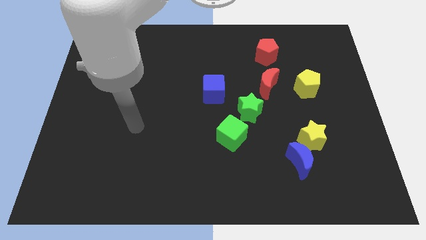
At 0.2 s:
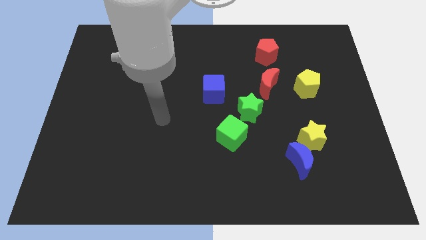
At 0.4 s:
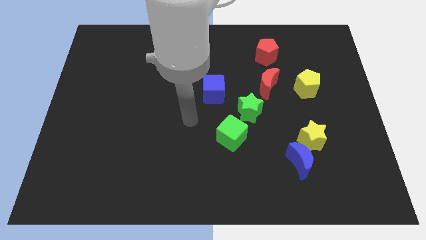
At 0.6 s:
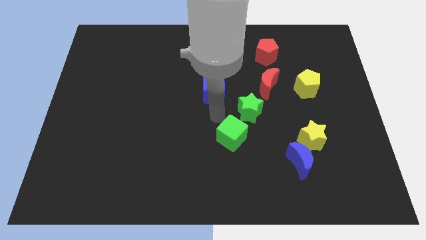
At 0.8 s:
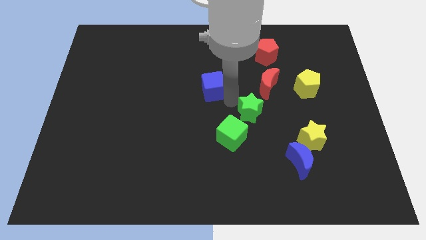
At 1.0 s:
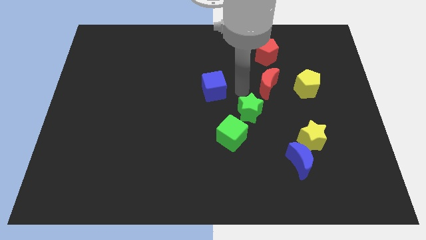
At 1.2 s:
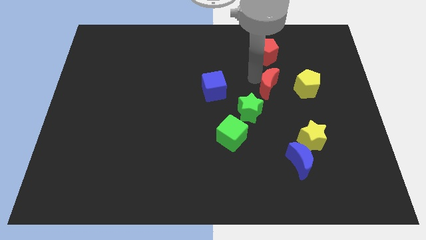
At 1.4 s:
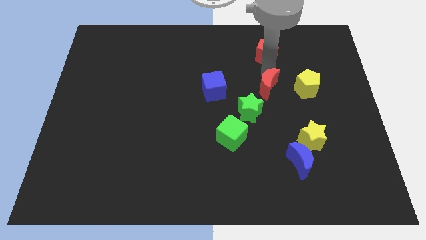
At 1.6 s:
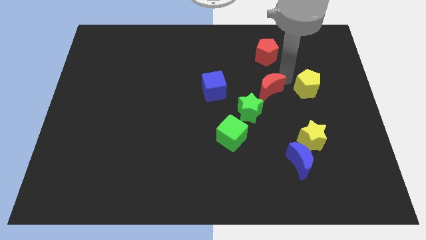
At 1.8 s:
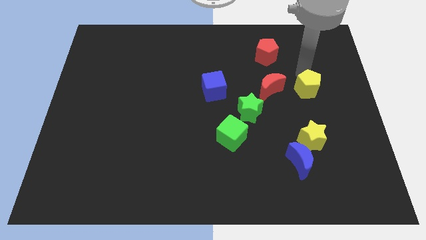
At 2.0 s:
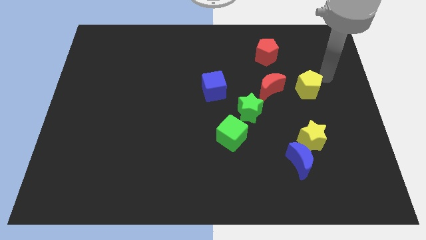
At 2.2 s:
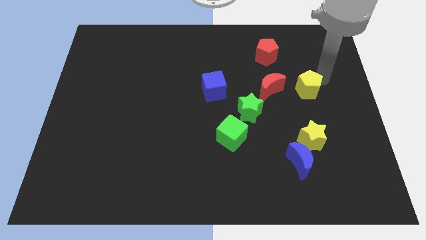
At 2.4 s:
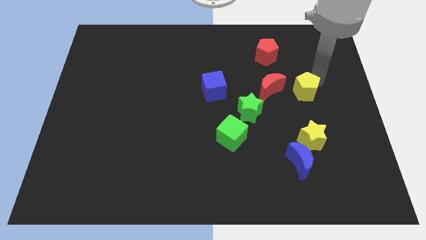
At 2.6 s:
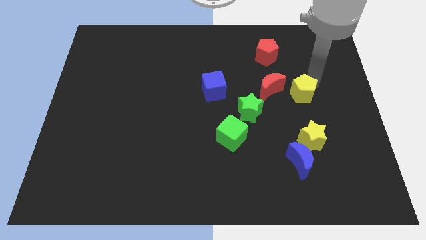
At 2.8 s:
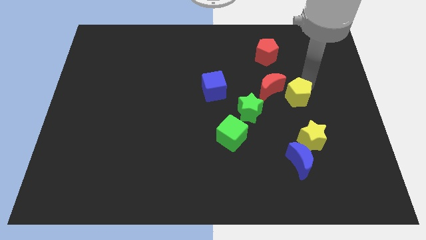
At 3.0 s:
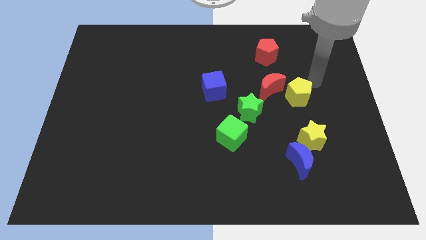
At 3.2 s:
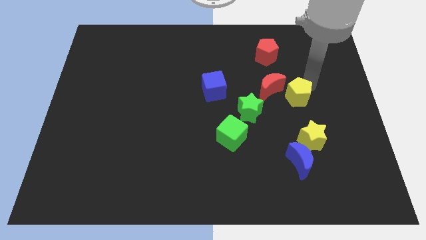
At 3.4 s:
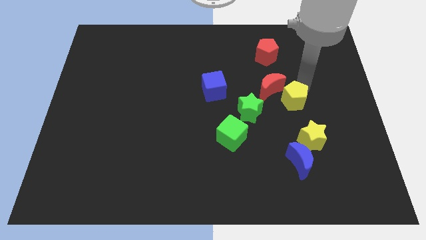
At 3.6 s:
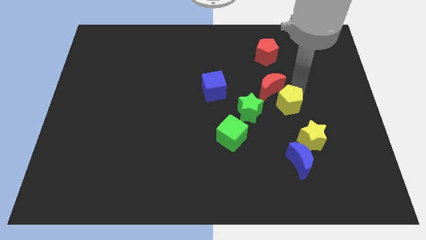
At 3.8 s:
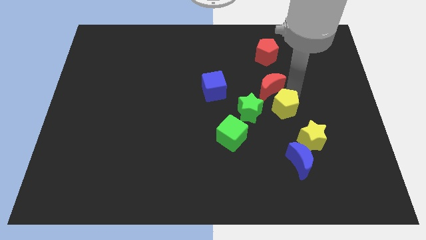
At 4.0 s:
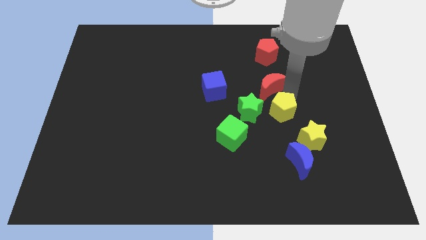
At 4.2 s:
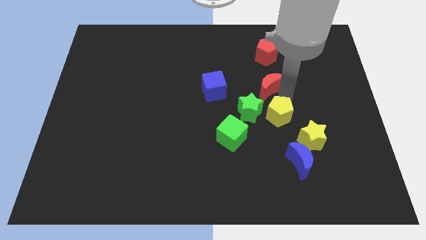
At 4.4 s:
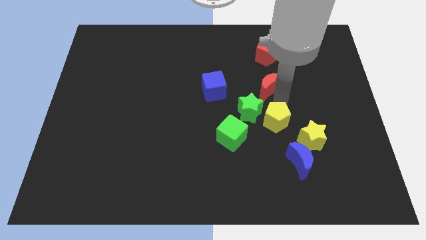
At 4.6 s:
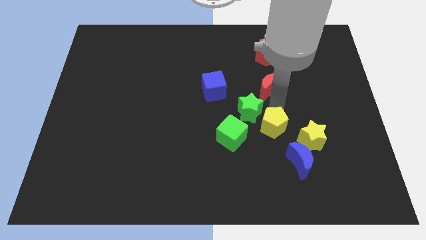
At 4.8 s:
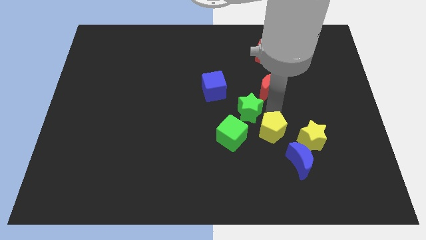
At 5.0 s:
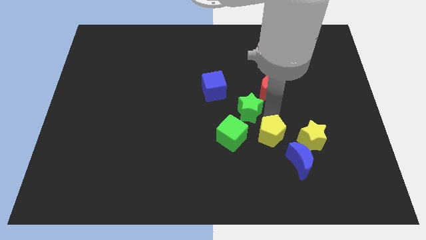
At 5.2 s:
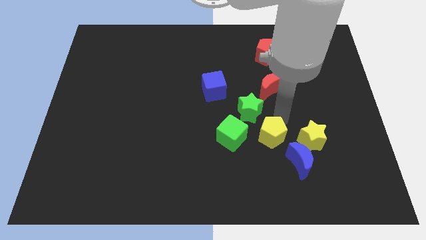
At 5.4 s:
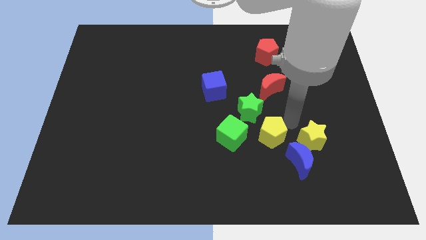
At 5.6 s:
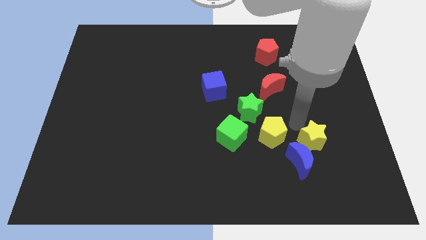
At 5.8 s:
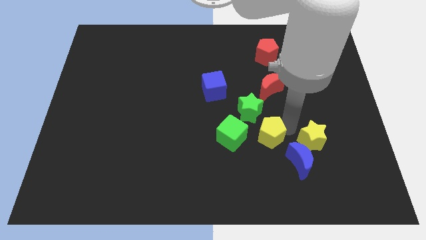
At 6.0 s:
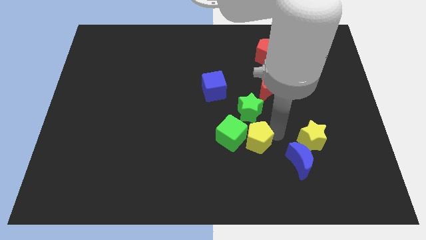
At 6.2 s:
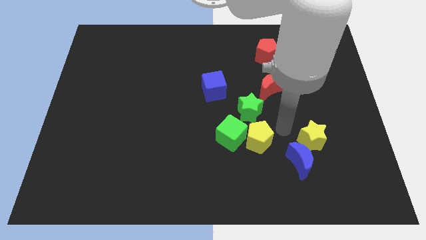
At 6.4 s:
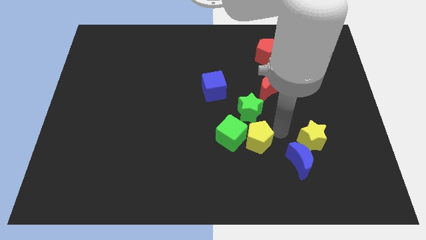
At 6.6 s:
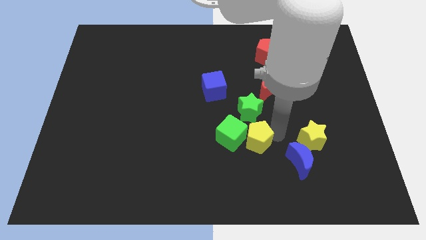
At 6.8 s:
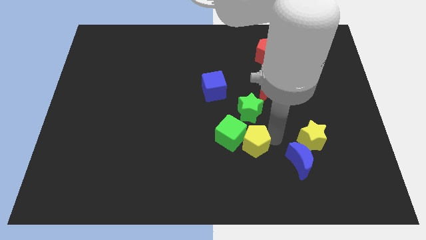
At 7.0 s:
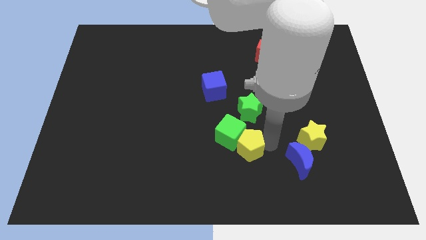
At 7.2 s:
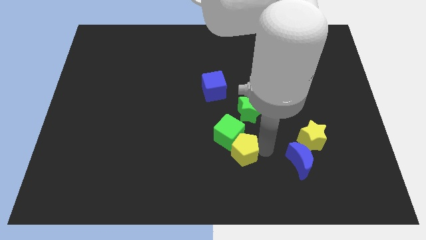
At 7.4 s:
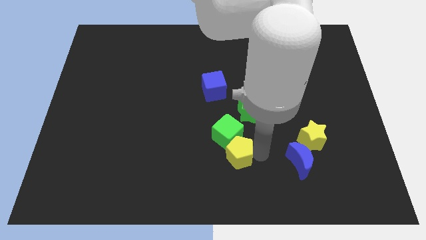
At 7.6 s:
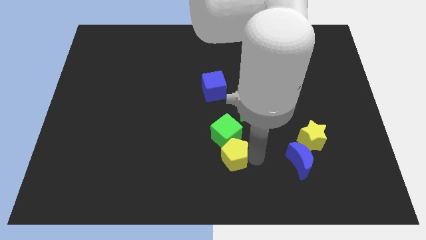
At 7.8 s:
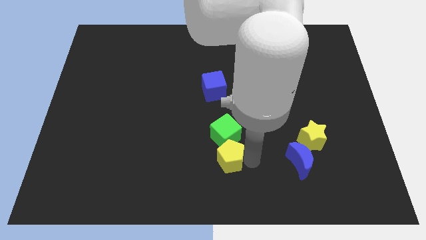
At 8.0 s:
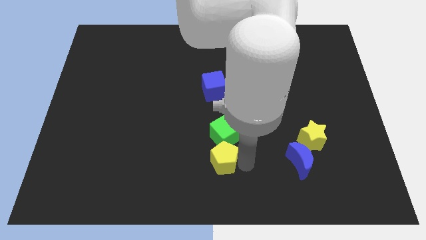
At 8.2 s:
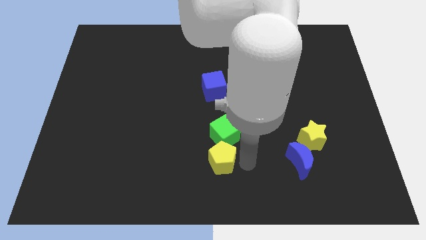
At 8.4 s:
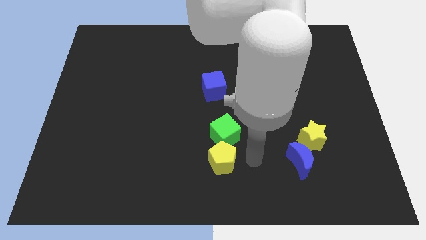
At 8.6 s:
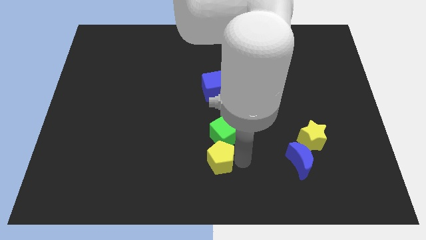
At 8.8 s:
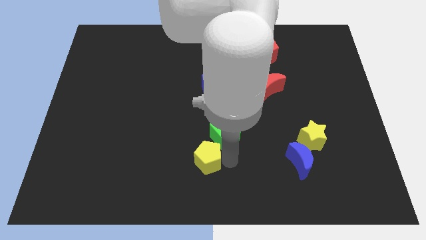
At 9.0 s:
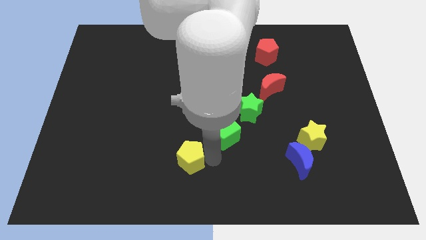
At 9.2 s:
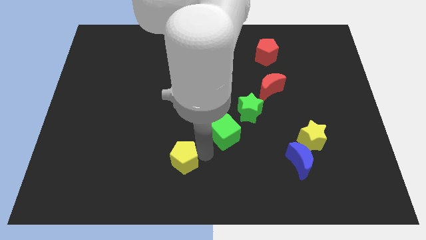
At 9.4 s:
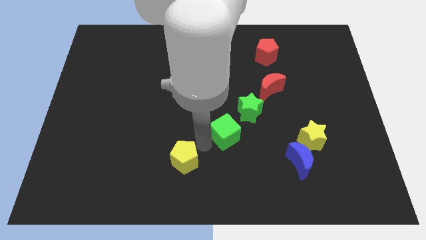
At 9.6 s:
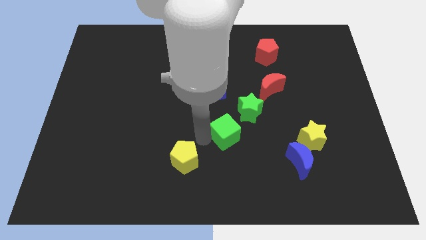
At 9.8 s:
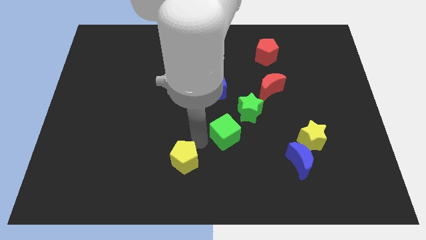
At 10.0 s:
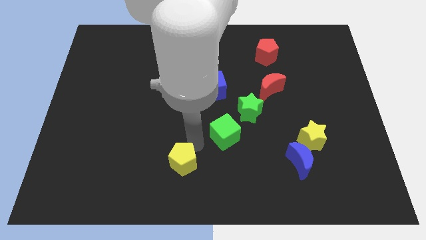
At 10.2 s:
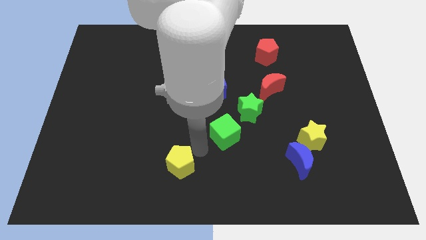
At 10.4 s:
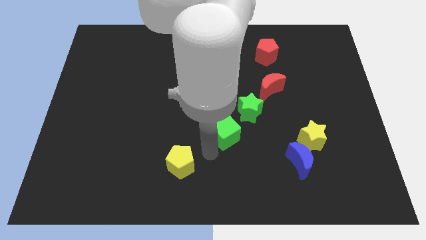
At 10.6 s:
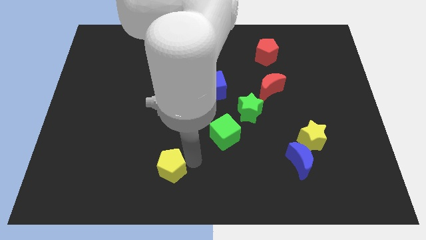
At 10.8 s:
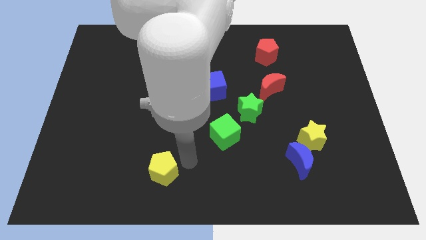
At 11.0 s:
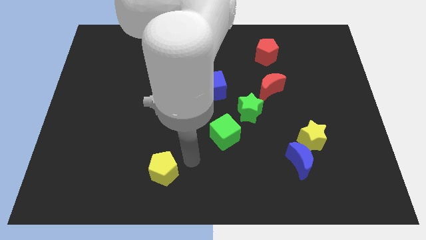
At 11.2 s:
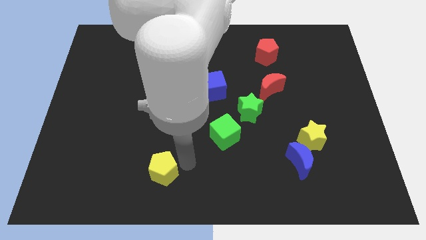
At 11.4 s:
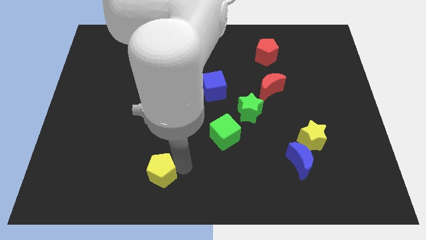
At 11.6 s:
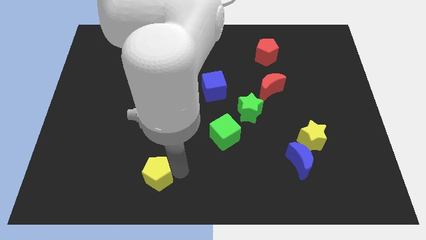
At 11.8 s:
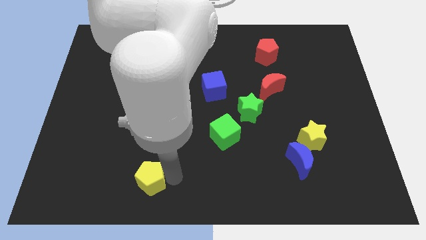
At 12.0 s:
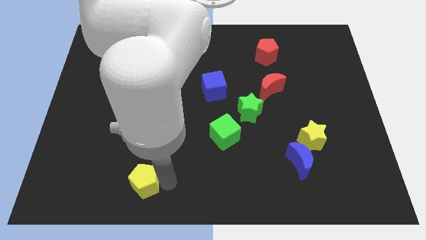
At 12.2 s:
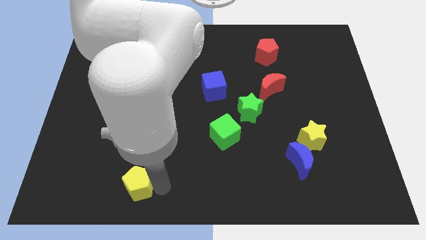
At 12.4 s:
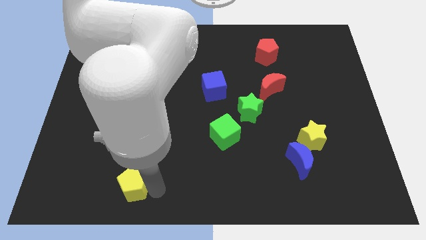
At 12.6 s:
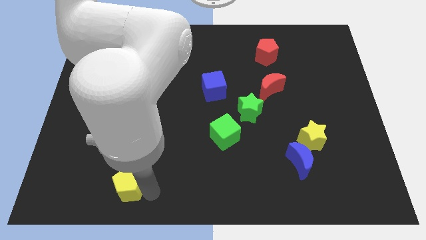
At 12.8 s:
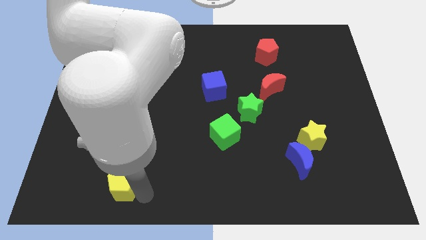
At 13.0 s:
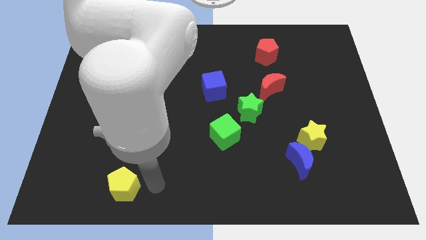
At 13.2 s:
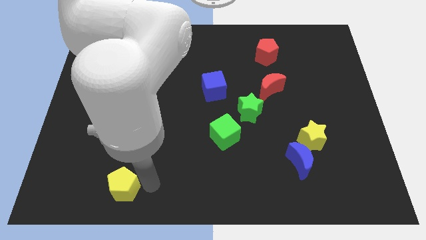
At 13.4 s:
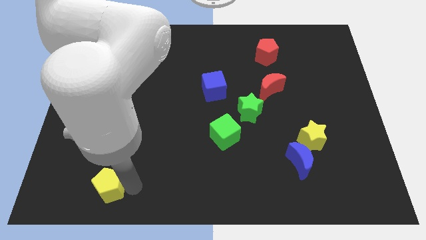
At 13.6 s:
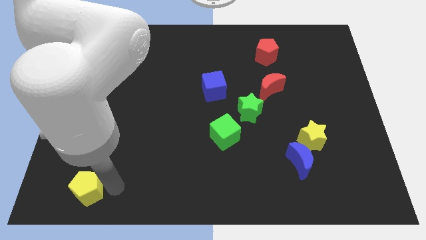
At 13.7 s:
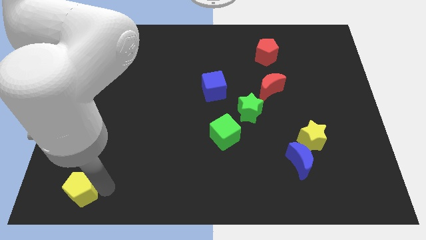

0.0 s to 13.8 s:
slide the yellow pentagon to the bottom left
